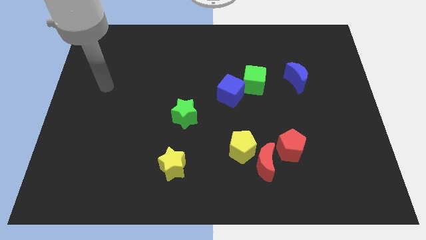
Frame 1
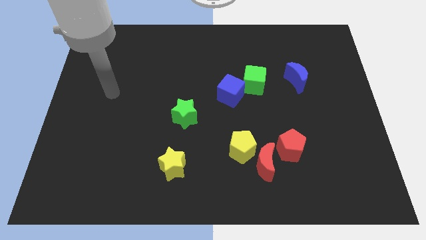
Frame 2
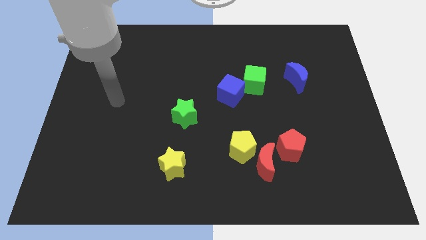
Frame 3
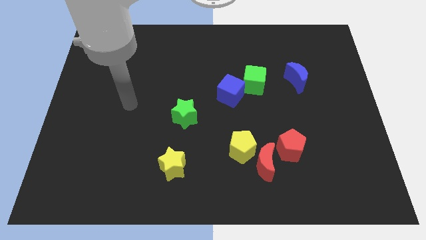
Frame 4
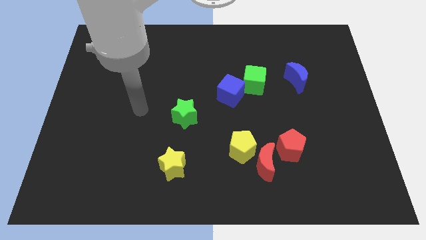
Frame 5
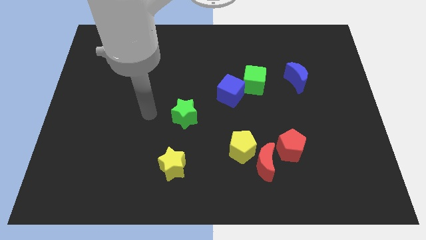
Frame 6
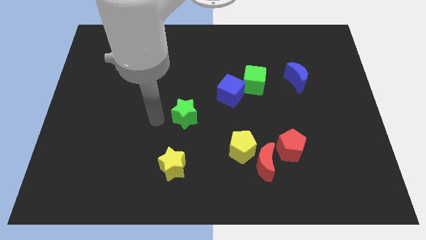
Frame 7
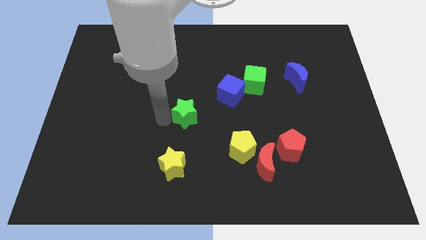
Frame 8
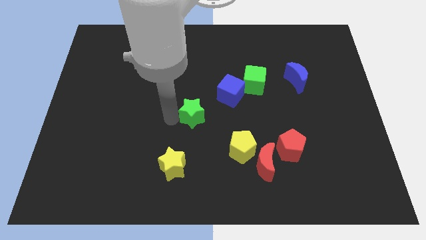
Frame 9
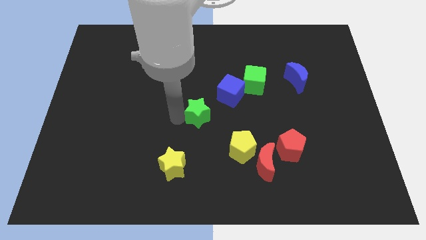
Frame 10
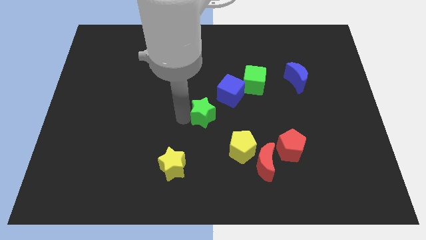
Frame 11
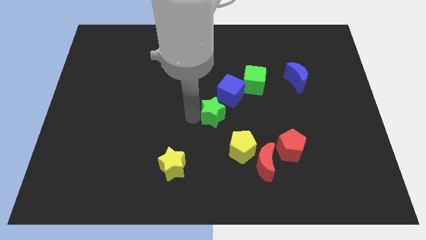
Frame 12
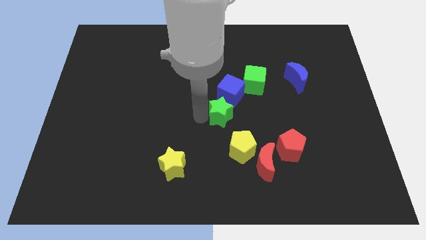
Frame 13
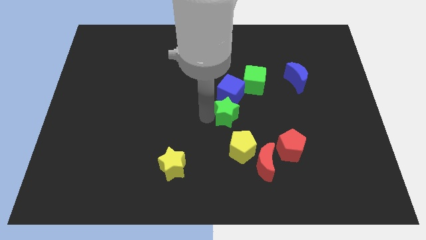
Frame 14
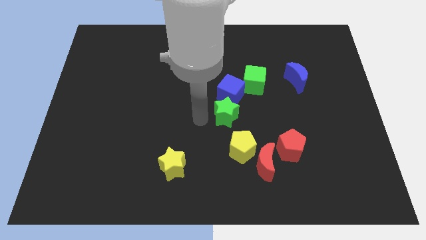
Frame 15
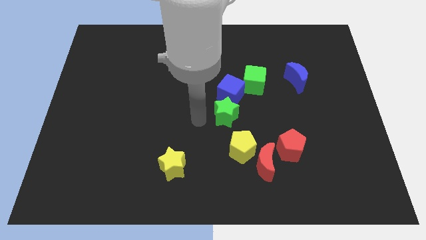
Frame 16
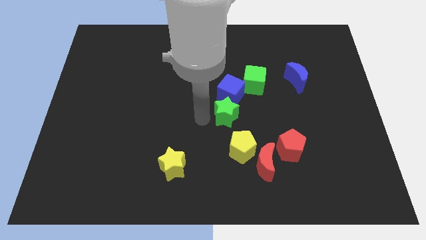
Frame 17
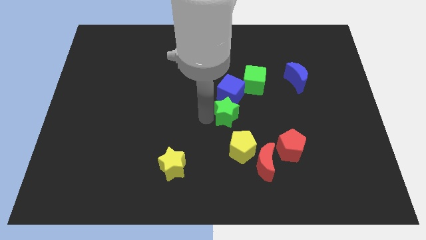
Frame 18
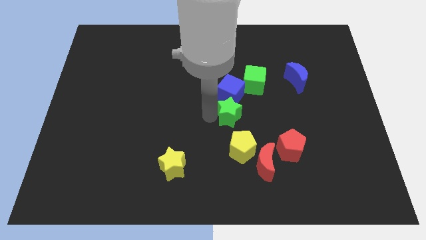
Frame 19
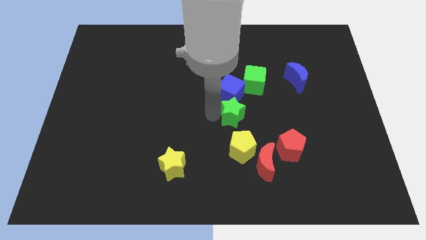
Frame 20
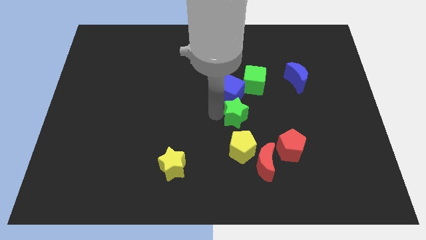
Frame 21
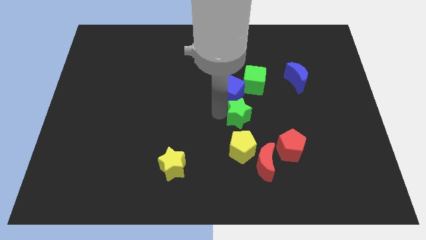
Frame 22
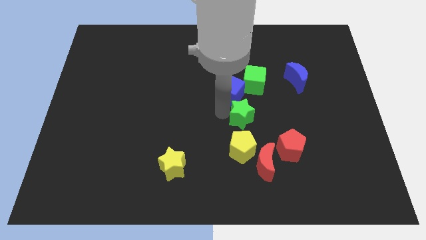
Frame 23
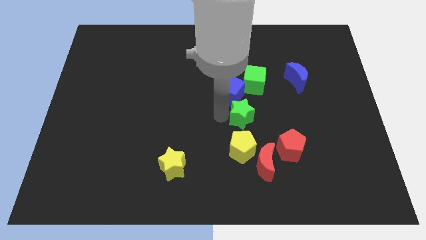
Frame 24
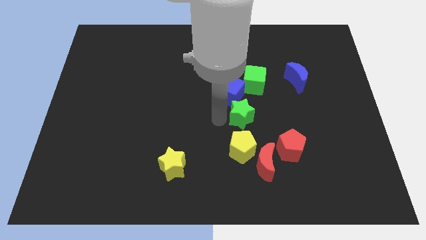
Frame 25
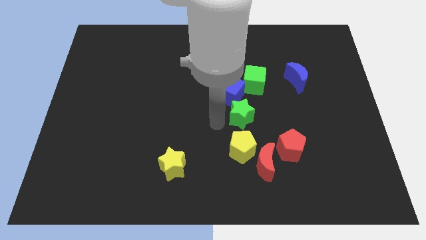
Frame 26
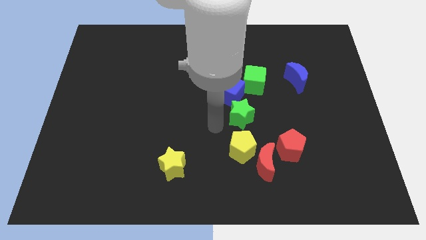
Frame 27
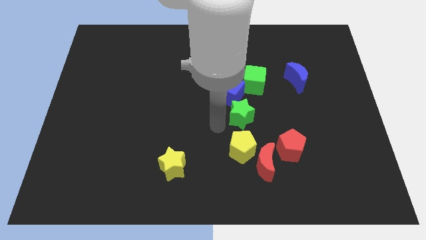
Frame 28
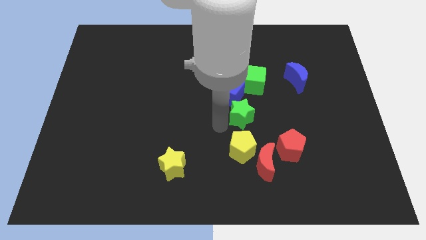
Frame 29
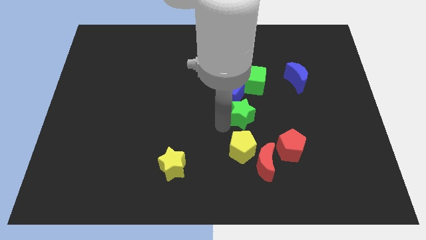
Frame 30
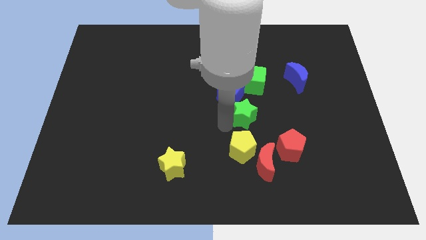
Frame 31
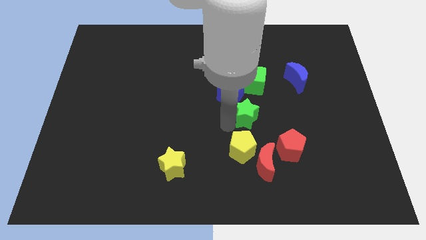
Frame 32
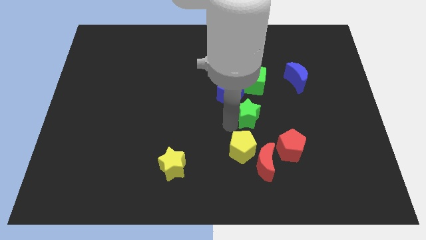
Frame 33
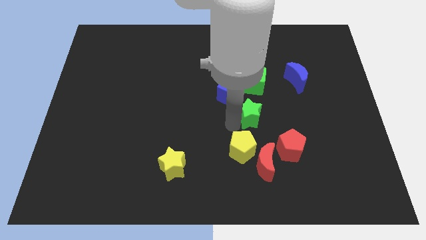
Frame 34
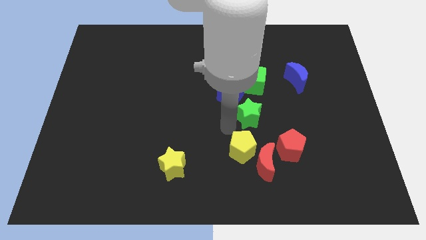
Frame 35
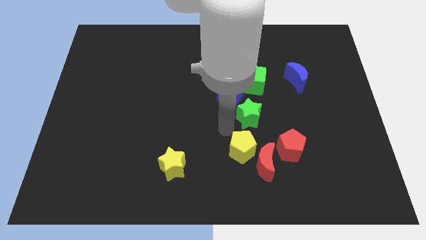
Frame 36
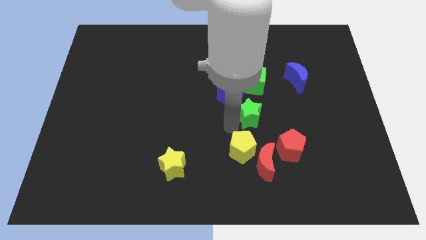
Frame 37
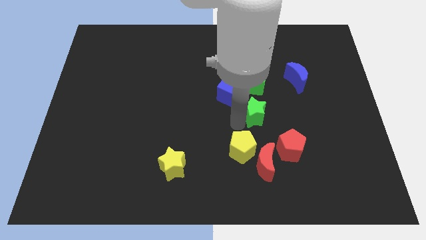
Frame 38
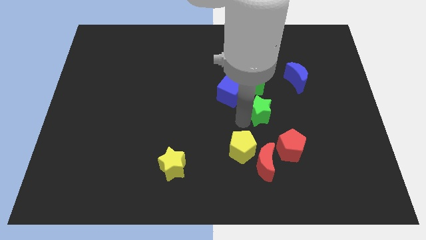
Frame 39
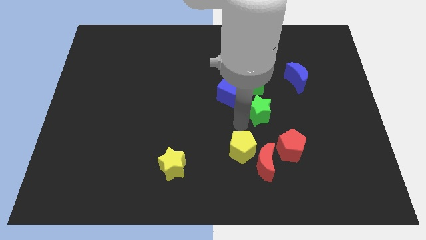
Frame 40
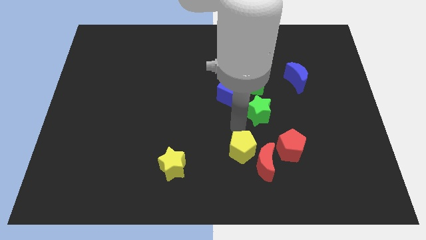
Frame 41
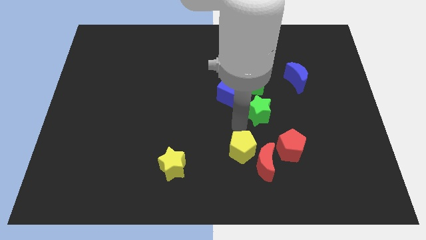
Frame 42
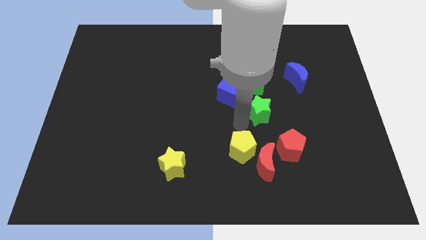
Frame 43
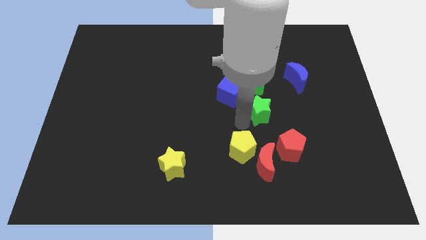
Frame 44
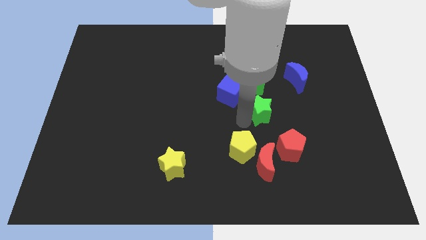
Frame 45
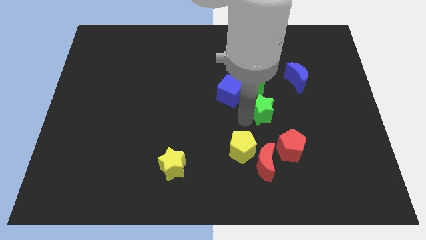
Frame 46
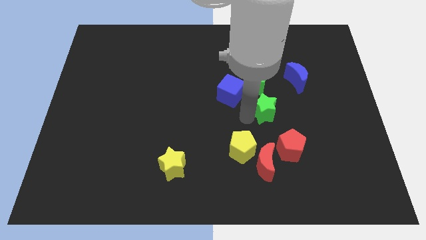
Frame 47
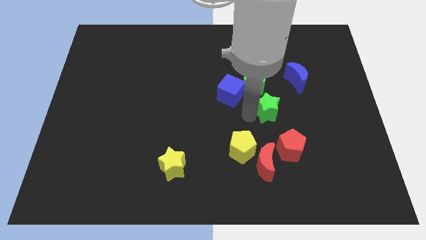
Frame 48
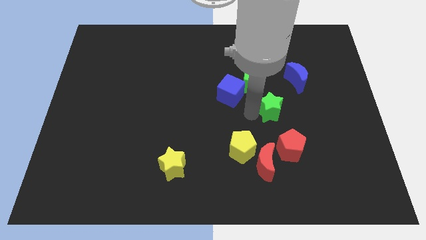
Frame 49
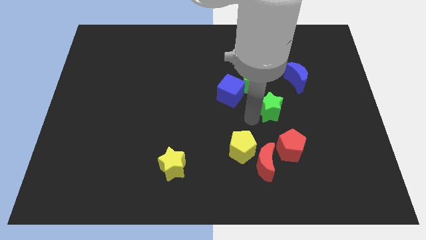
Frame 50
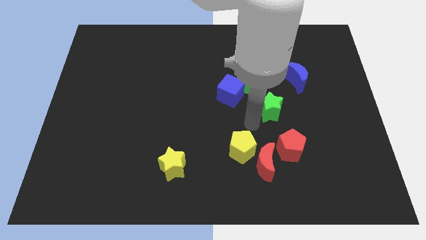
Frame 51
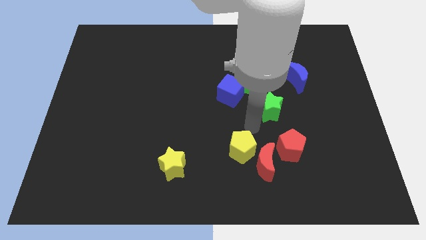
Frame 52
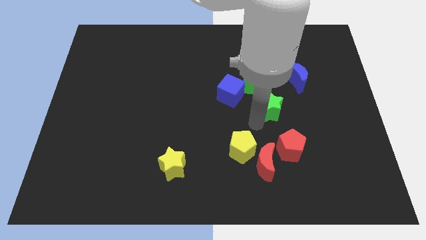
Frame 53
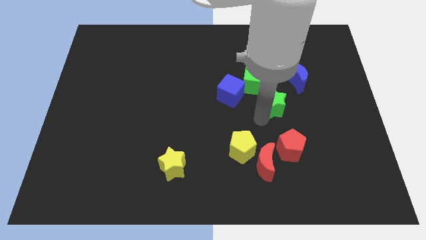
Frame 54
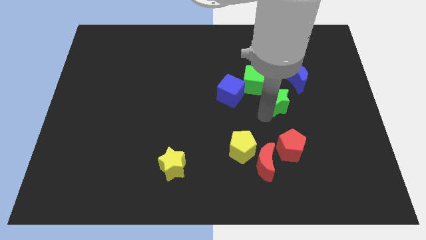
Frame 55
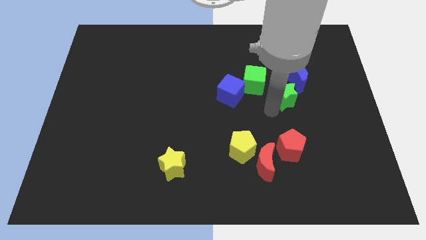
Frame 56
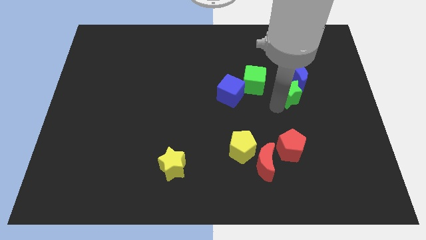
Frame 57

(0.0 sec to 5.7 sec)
put the green star next to the blue moon

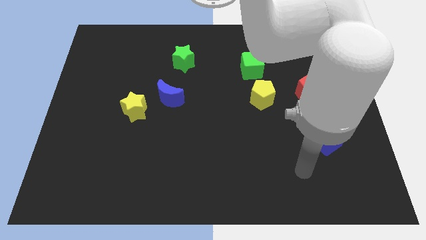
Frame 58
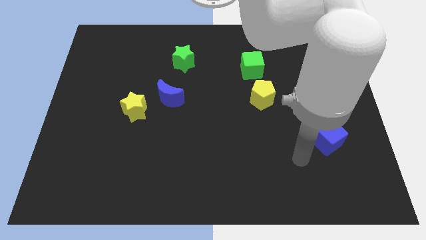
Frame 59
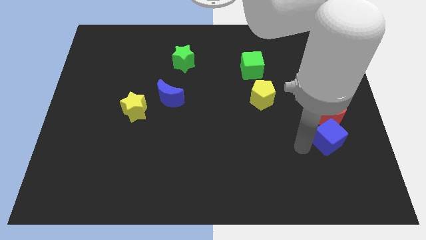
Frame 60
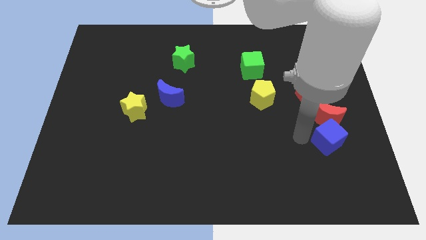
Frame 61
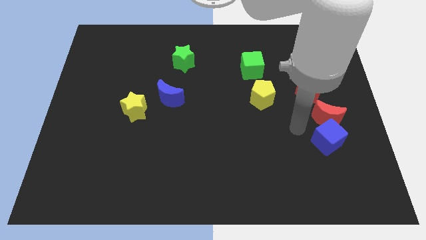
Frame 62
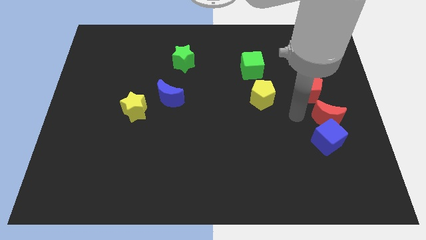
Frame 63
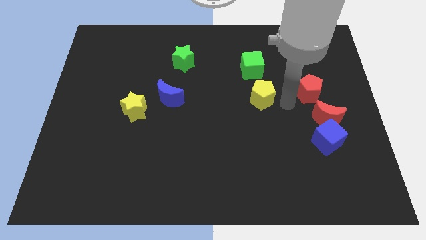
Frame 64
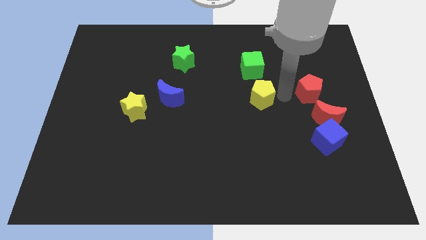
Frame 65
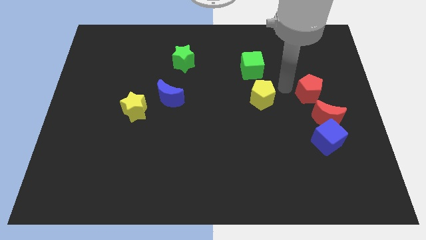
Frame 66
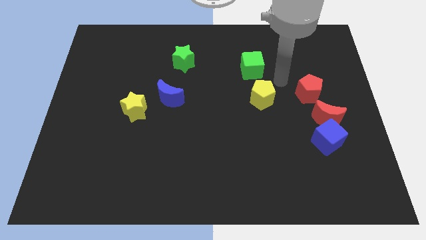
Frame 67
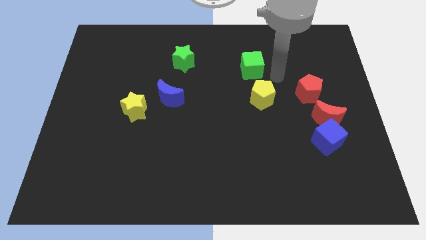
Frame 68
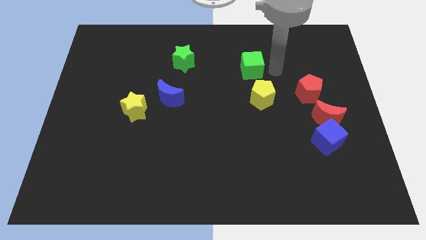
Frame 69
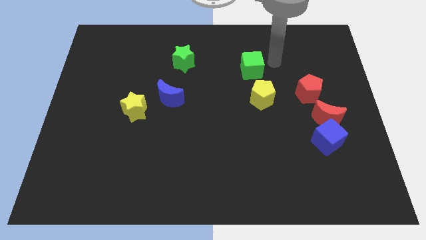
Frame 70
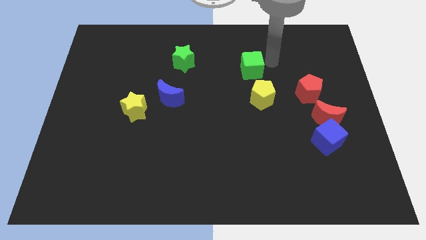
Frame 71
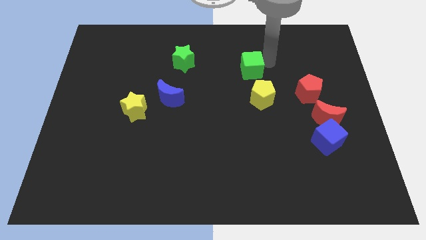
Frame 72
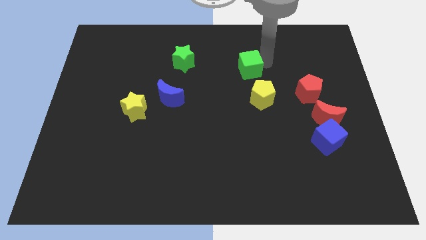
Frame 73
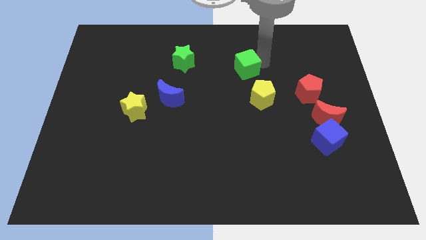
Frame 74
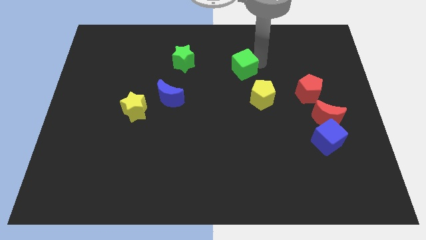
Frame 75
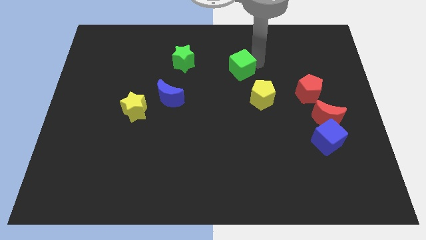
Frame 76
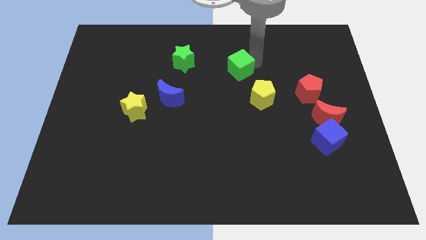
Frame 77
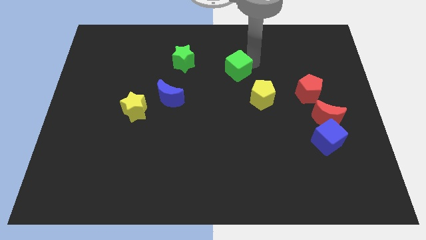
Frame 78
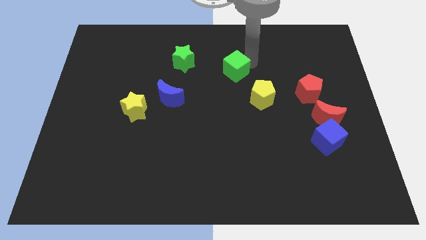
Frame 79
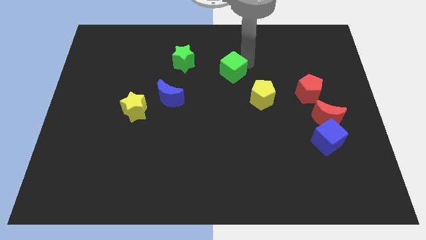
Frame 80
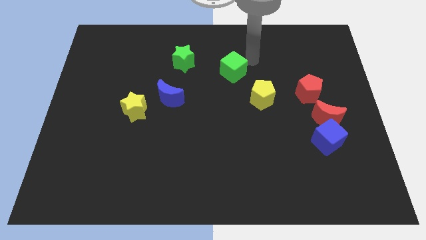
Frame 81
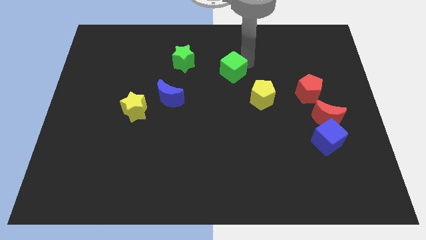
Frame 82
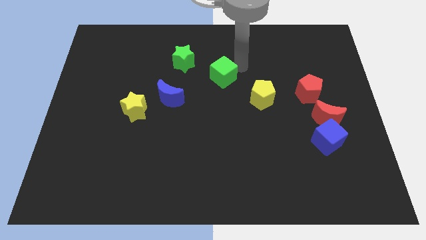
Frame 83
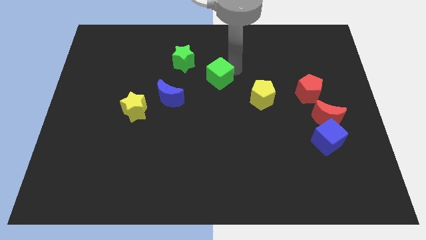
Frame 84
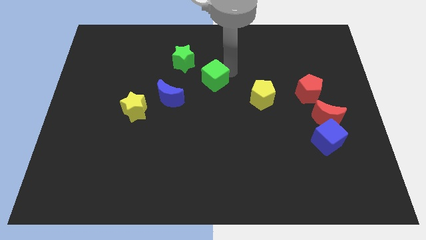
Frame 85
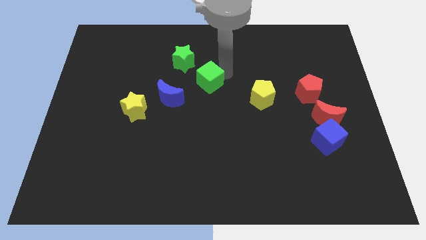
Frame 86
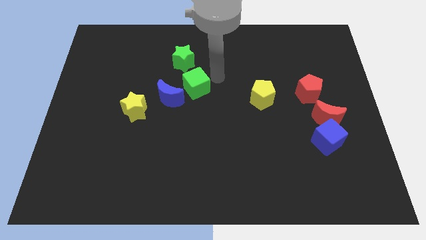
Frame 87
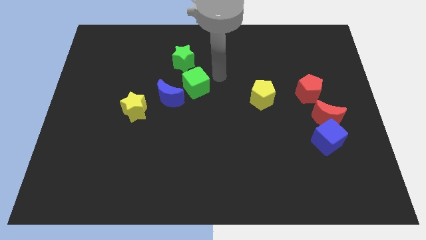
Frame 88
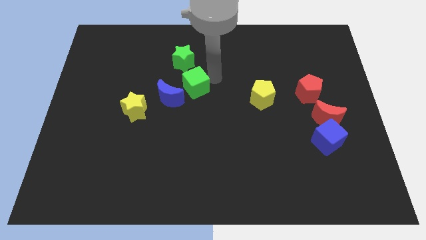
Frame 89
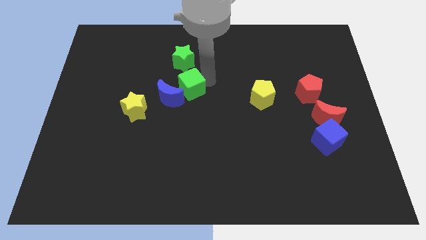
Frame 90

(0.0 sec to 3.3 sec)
put the green cube towards the blue moon
